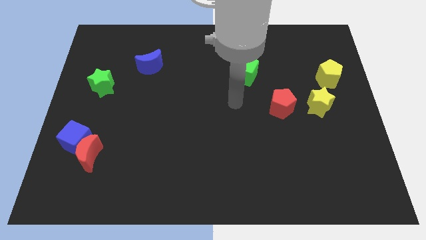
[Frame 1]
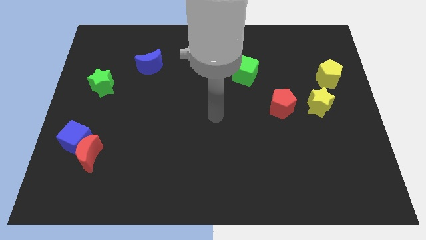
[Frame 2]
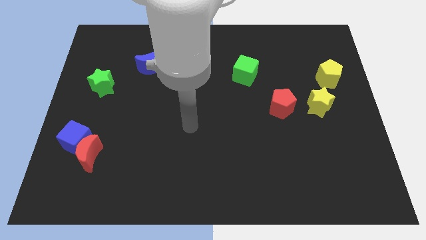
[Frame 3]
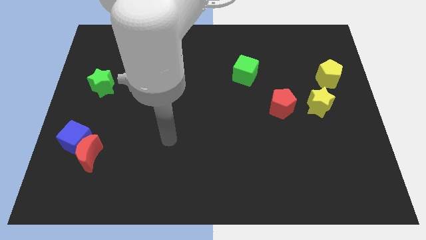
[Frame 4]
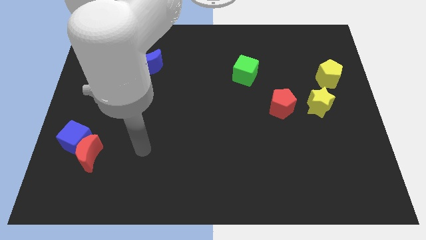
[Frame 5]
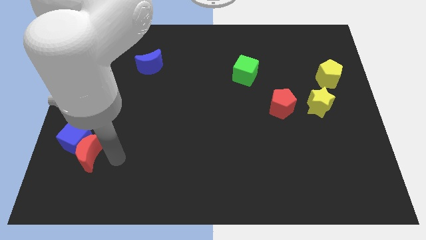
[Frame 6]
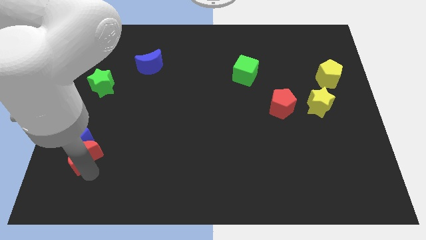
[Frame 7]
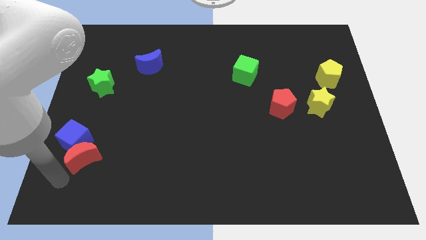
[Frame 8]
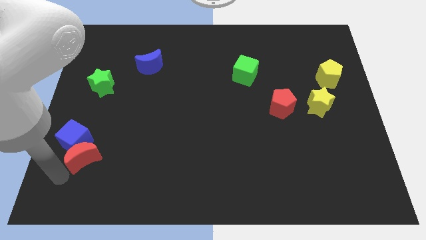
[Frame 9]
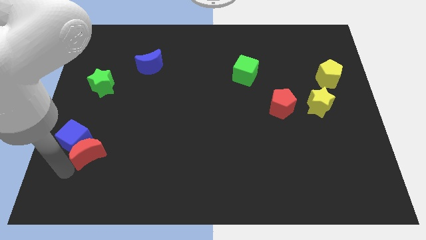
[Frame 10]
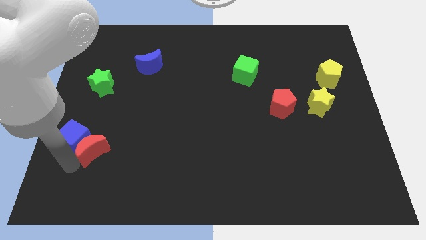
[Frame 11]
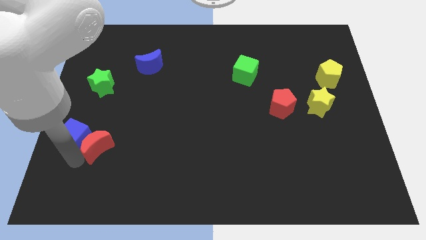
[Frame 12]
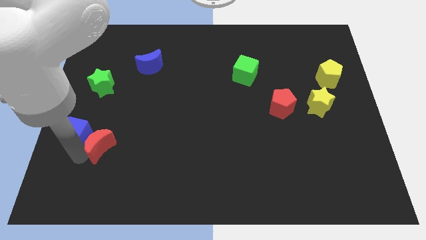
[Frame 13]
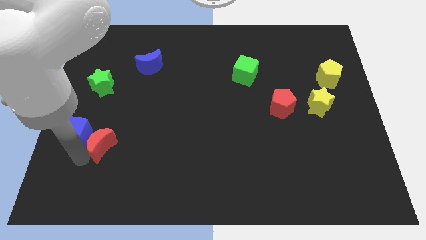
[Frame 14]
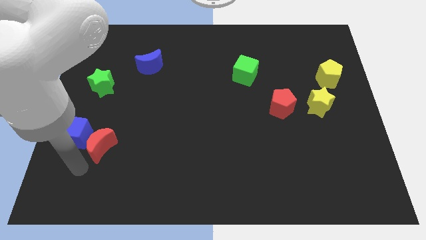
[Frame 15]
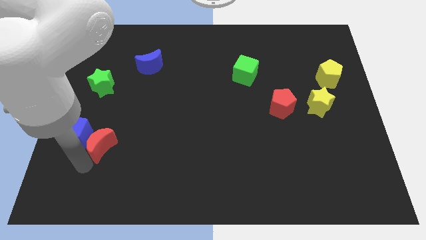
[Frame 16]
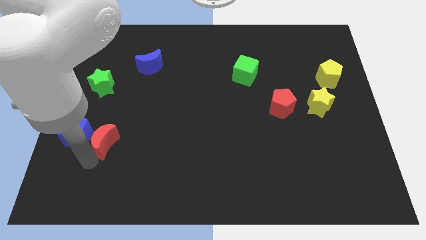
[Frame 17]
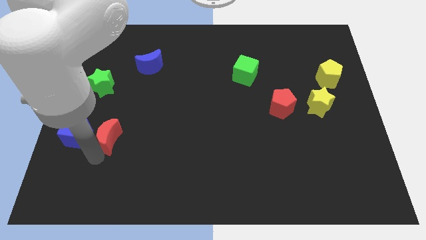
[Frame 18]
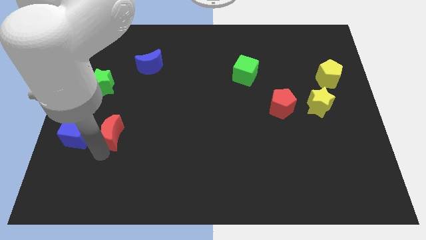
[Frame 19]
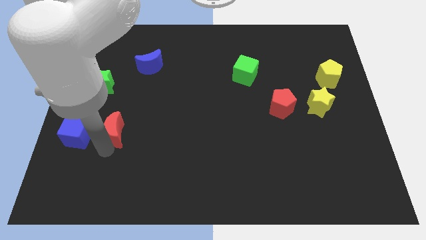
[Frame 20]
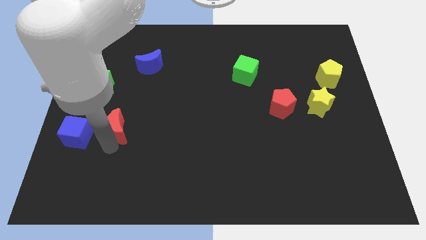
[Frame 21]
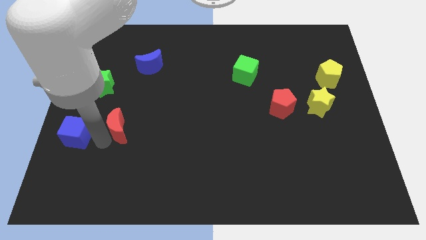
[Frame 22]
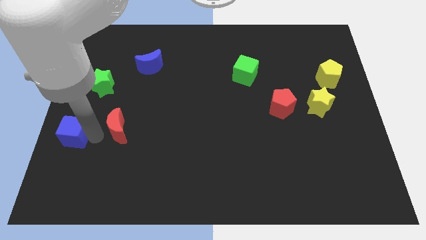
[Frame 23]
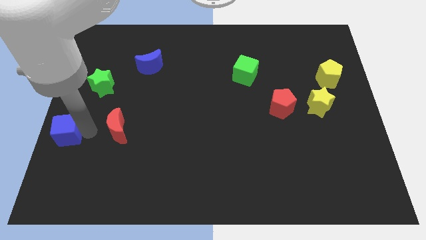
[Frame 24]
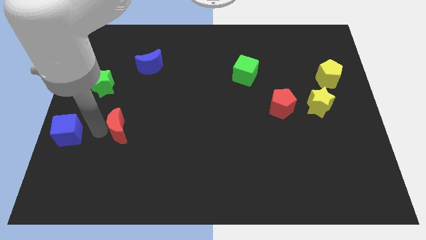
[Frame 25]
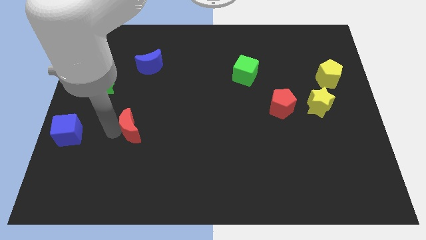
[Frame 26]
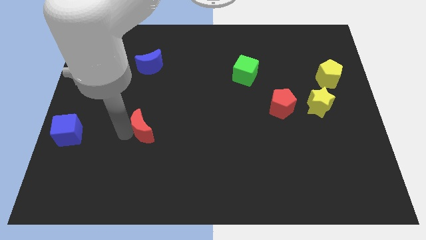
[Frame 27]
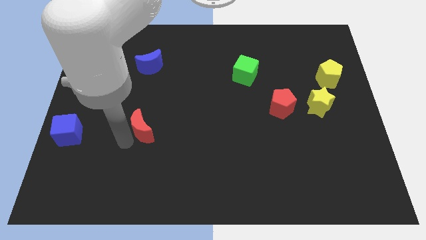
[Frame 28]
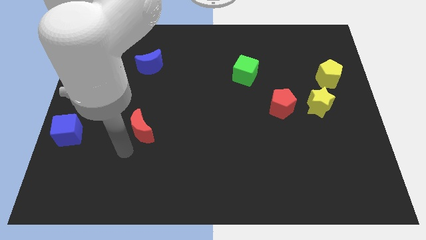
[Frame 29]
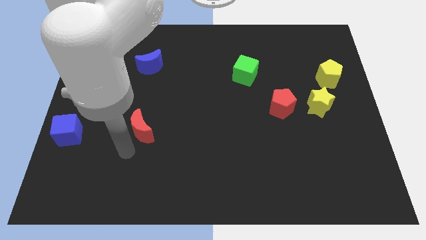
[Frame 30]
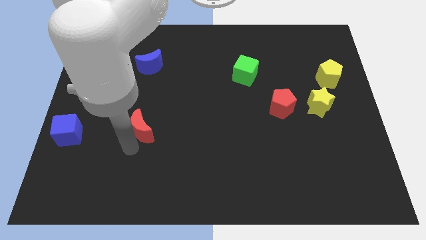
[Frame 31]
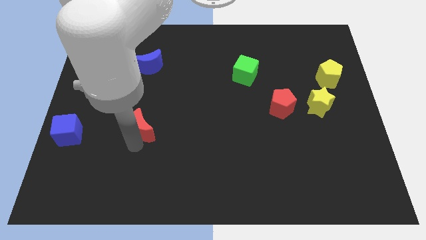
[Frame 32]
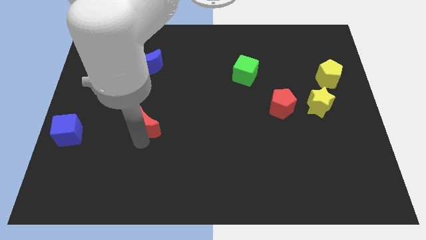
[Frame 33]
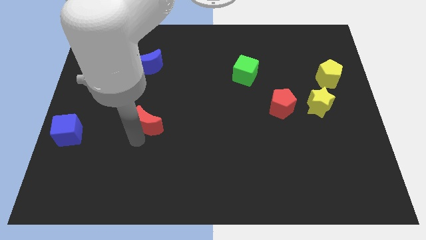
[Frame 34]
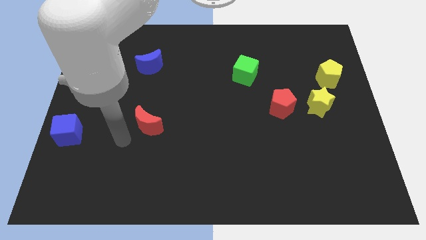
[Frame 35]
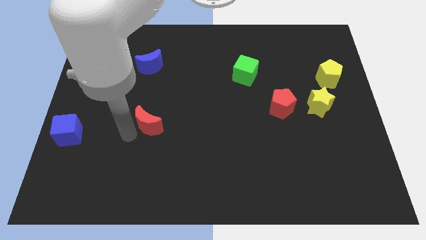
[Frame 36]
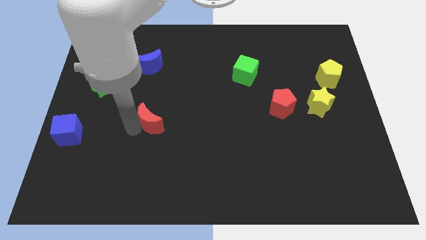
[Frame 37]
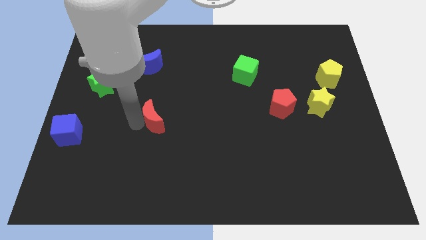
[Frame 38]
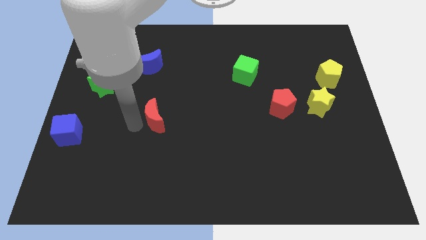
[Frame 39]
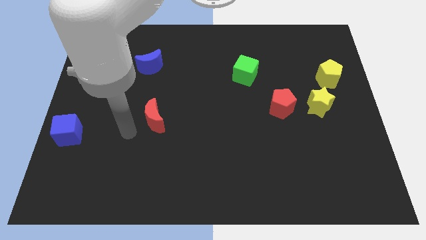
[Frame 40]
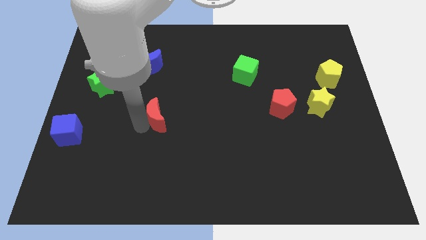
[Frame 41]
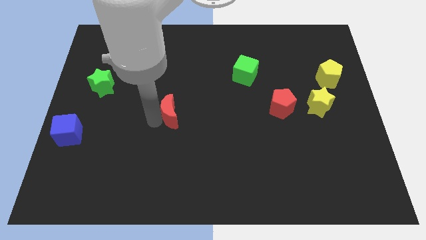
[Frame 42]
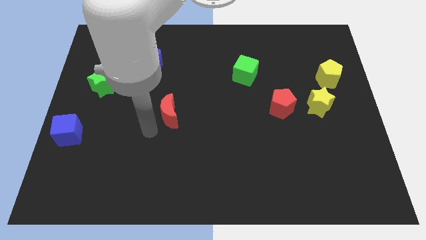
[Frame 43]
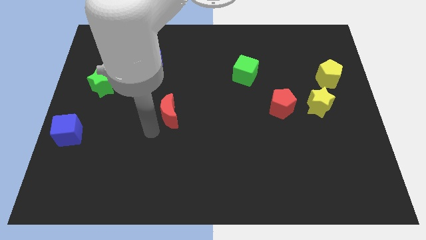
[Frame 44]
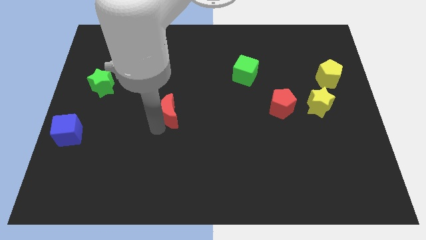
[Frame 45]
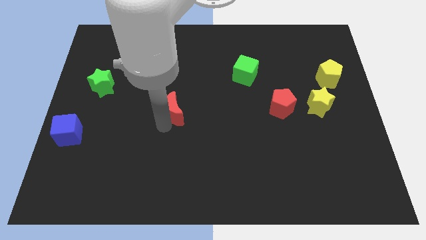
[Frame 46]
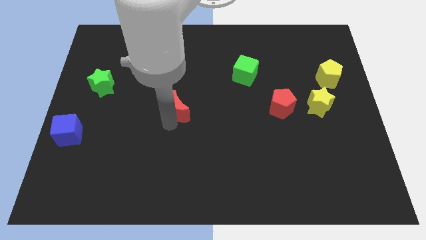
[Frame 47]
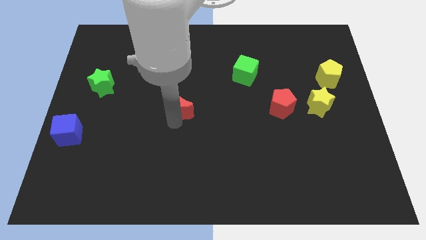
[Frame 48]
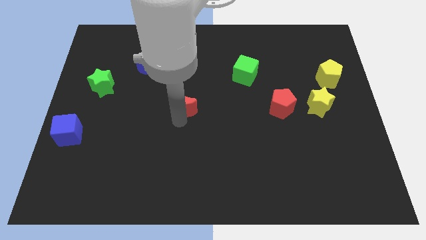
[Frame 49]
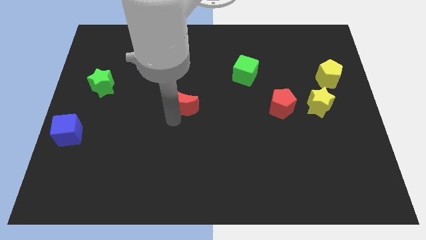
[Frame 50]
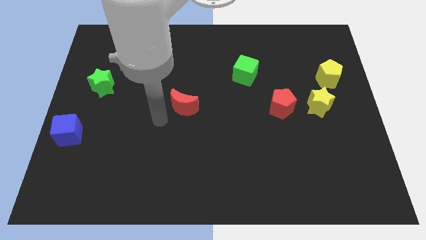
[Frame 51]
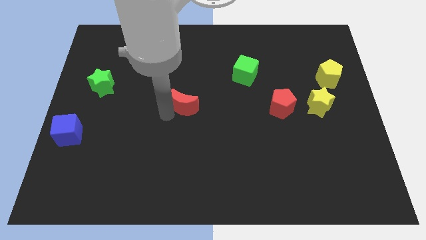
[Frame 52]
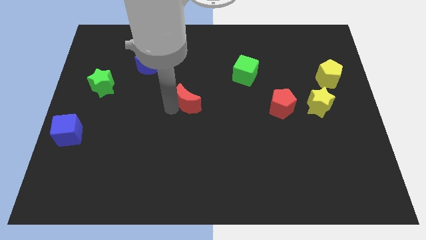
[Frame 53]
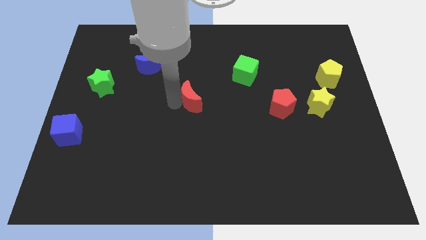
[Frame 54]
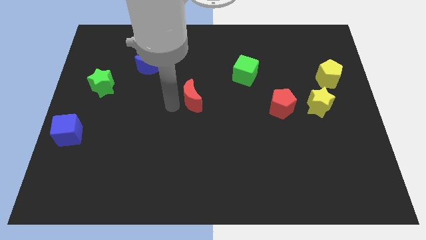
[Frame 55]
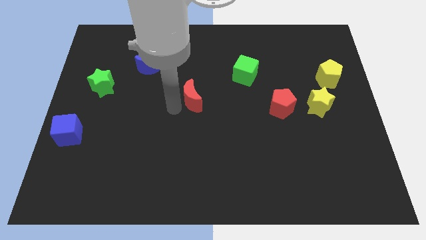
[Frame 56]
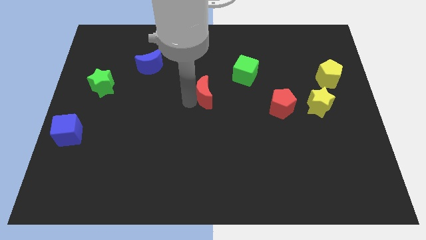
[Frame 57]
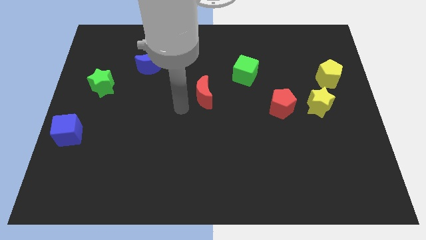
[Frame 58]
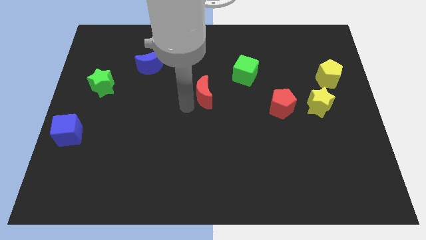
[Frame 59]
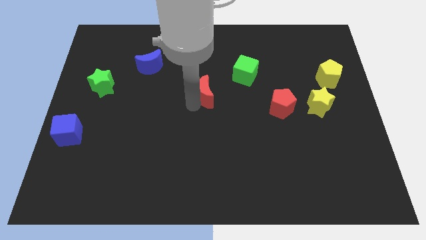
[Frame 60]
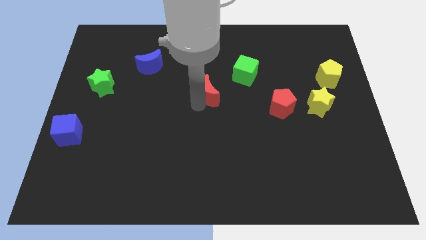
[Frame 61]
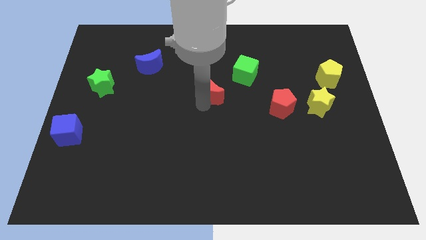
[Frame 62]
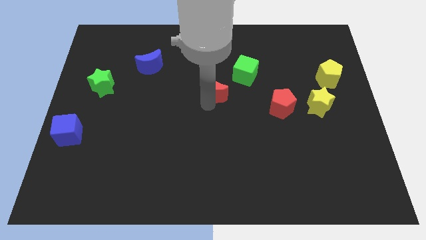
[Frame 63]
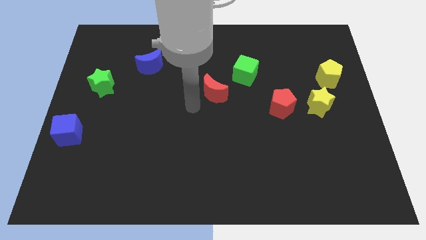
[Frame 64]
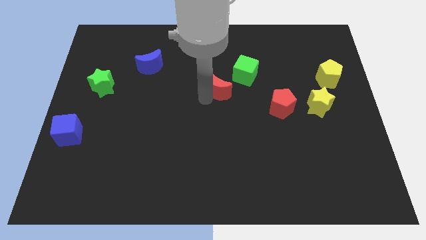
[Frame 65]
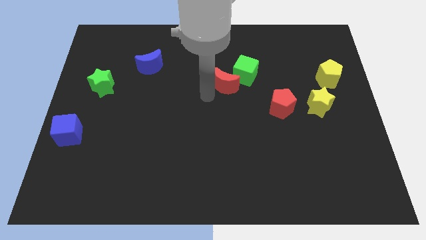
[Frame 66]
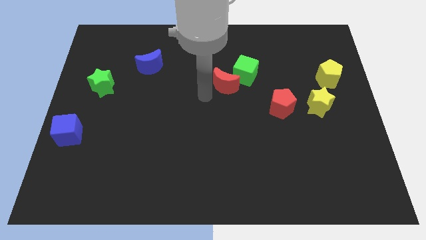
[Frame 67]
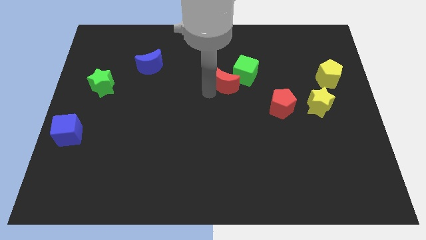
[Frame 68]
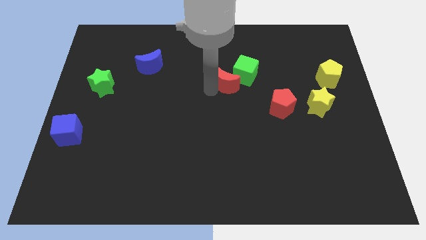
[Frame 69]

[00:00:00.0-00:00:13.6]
push the red moon next to the green cube

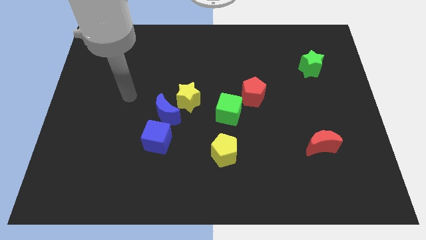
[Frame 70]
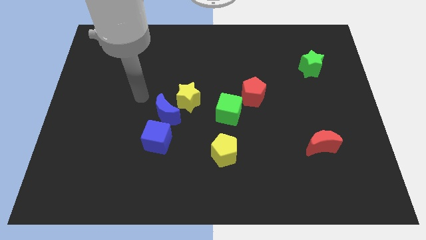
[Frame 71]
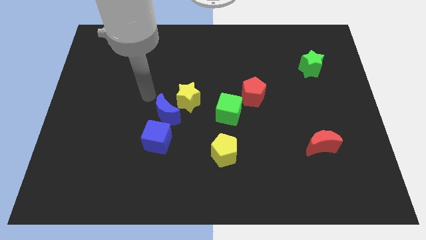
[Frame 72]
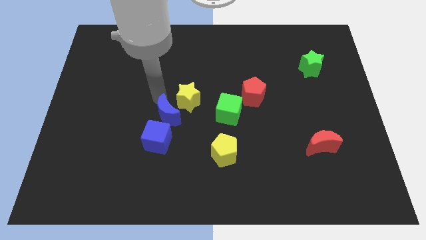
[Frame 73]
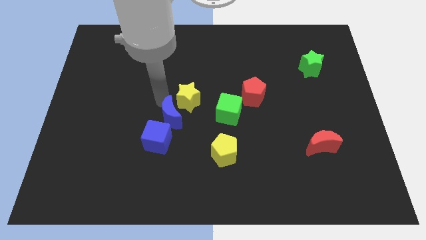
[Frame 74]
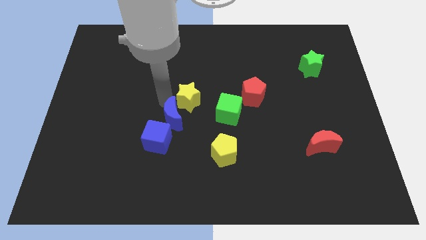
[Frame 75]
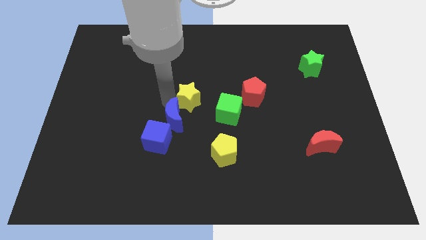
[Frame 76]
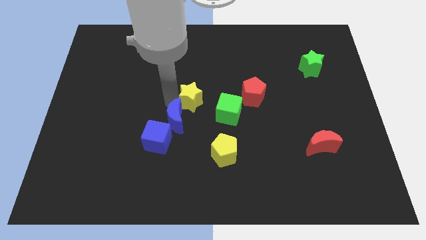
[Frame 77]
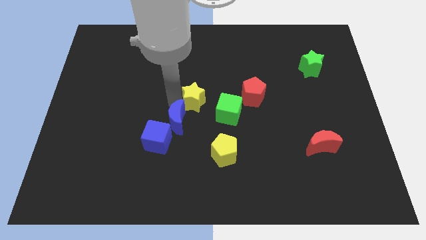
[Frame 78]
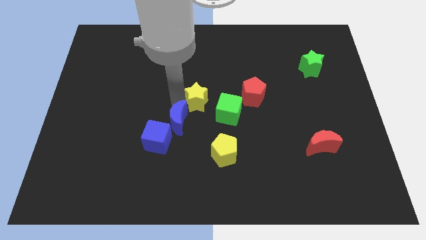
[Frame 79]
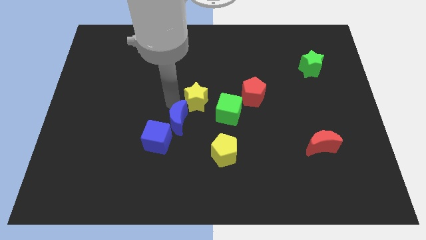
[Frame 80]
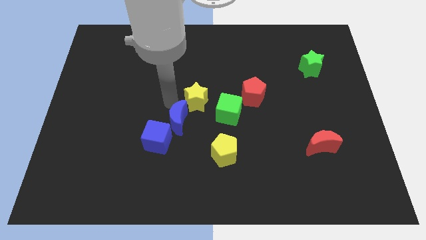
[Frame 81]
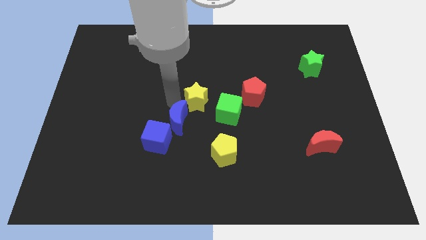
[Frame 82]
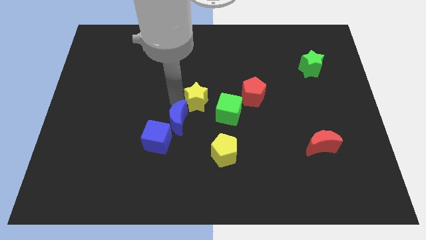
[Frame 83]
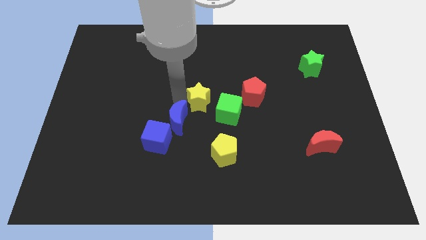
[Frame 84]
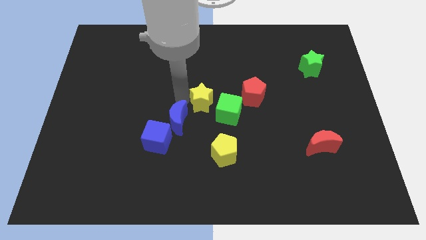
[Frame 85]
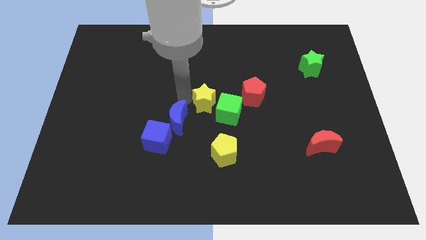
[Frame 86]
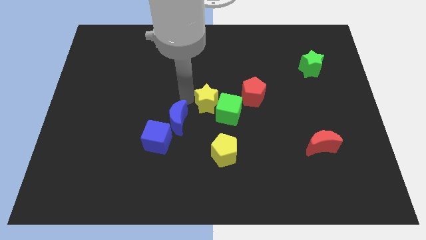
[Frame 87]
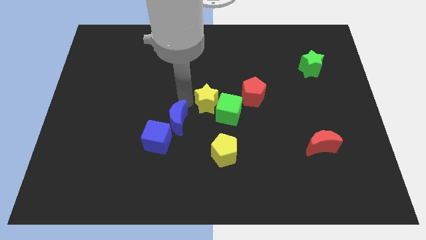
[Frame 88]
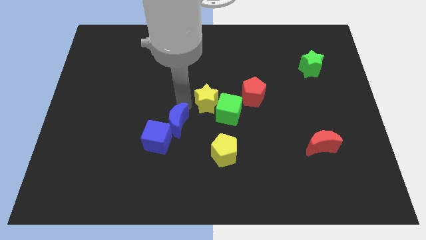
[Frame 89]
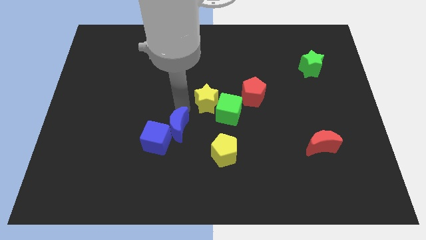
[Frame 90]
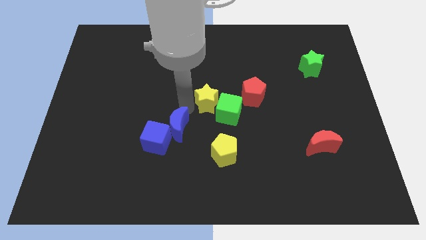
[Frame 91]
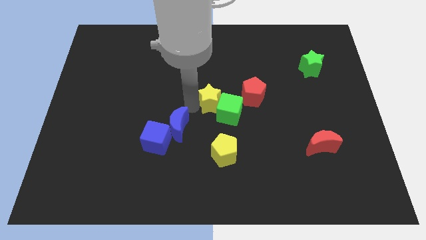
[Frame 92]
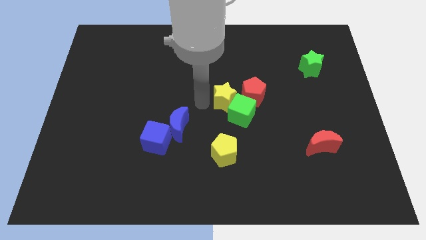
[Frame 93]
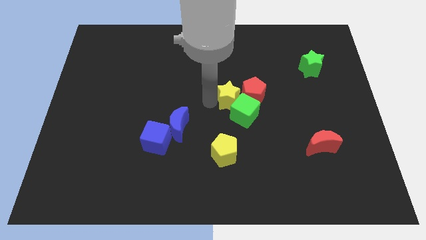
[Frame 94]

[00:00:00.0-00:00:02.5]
slide the yellow star close to the red pentagon
